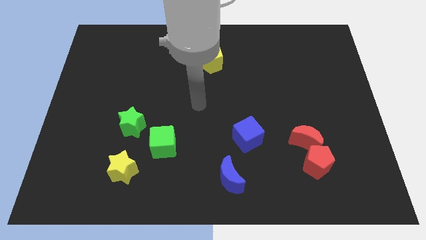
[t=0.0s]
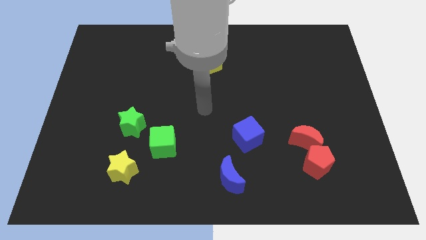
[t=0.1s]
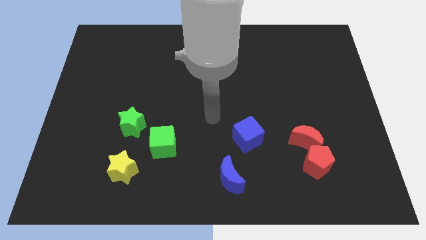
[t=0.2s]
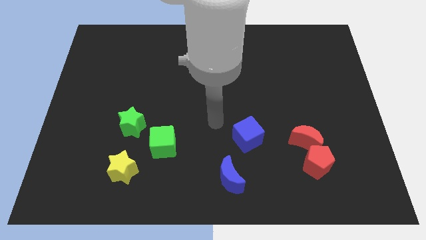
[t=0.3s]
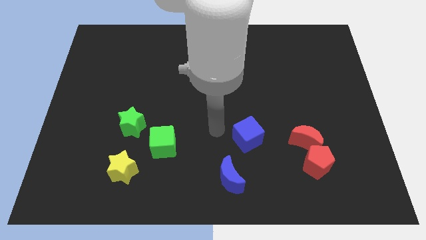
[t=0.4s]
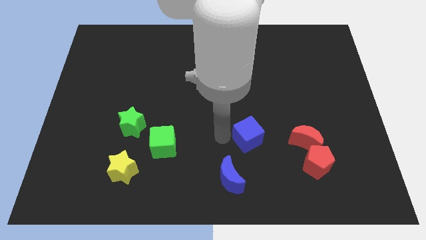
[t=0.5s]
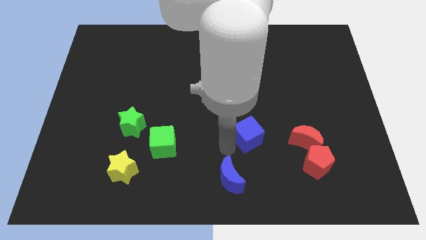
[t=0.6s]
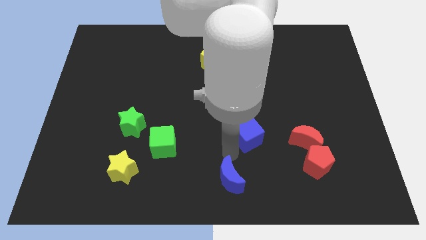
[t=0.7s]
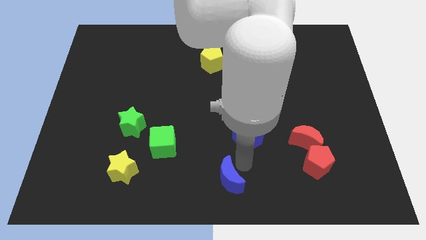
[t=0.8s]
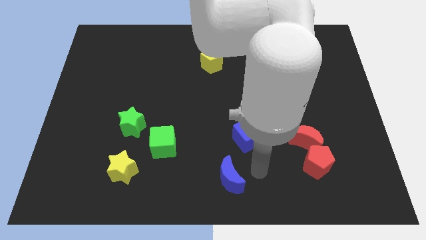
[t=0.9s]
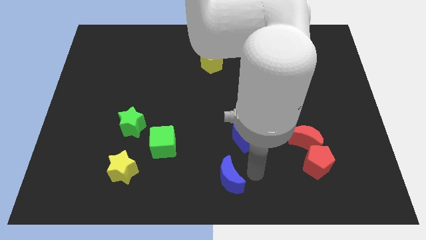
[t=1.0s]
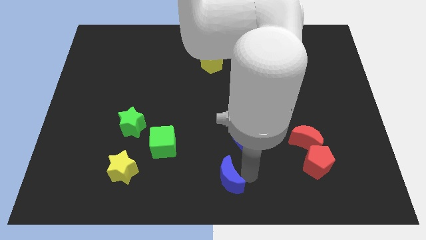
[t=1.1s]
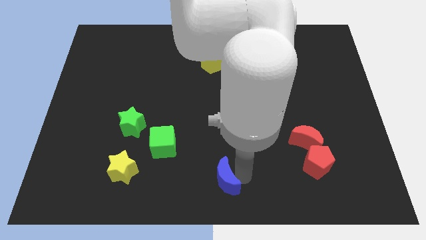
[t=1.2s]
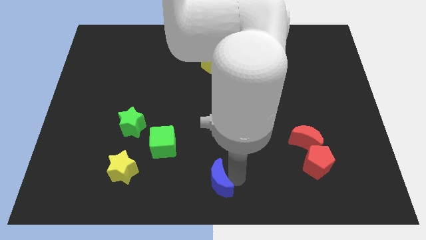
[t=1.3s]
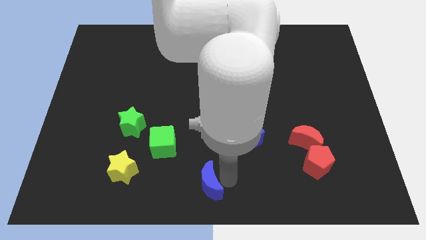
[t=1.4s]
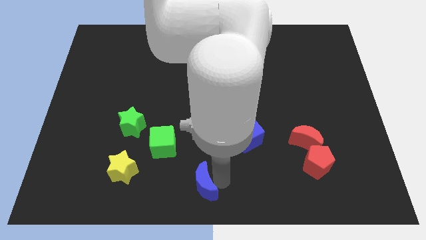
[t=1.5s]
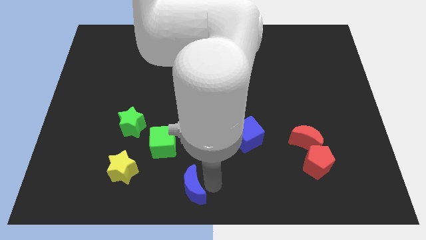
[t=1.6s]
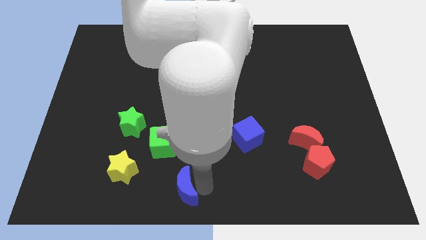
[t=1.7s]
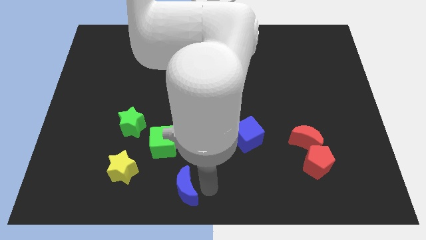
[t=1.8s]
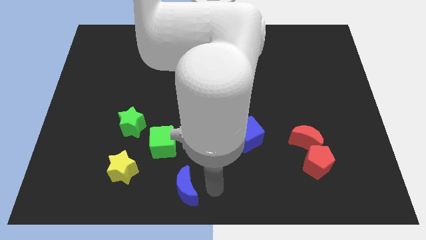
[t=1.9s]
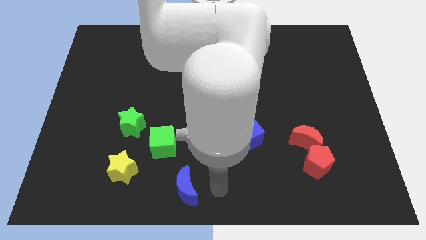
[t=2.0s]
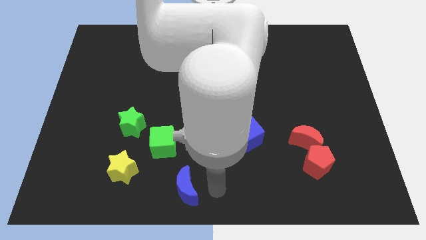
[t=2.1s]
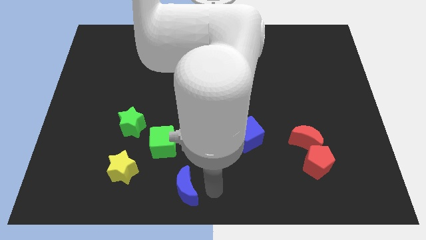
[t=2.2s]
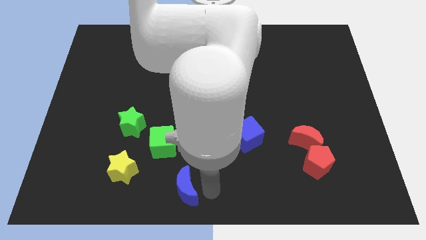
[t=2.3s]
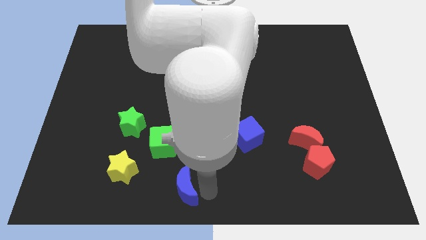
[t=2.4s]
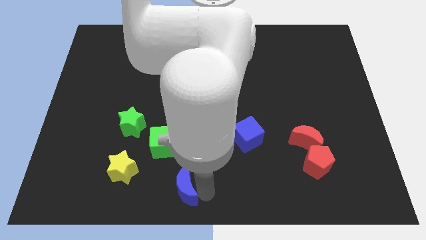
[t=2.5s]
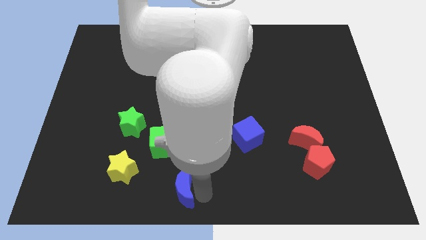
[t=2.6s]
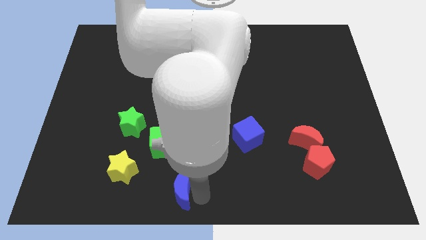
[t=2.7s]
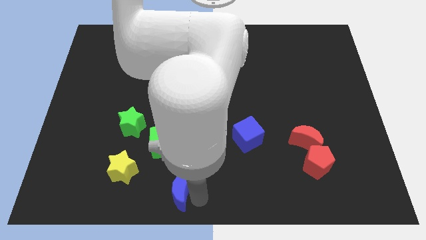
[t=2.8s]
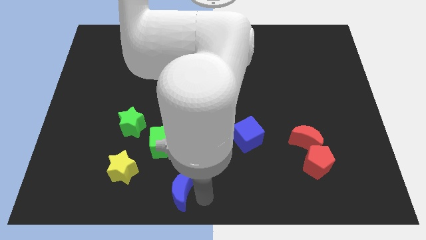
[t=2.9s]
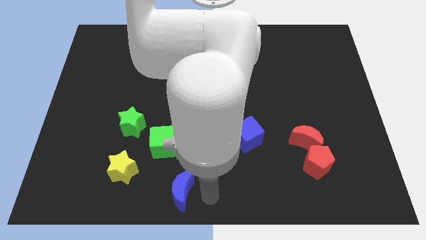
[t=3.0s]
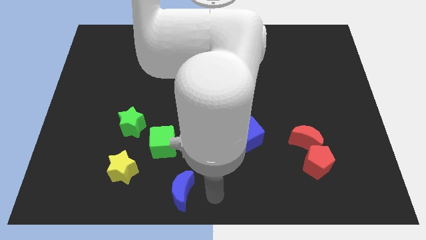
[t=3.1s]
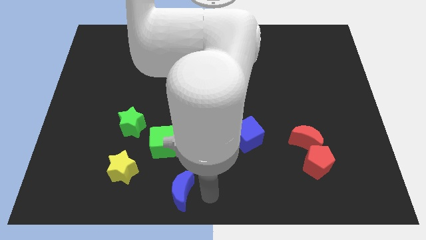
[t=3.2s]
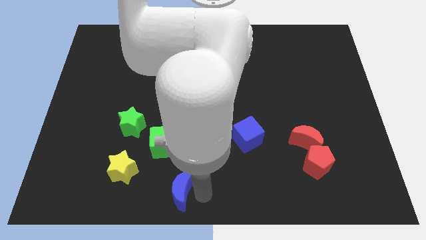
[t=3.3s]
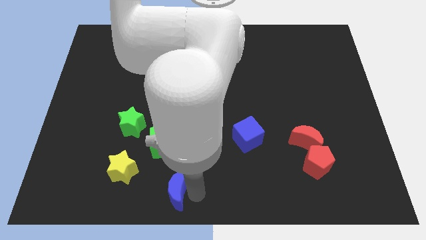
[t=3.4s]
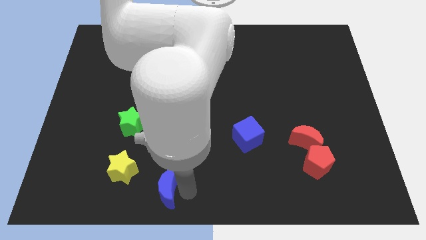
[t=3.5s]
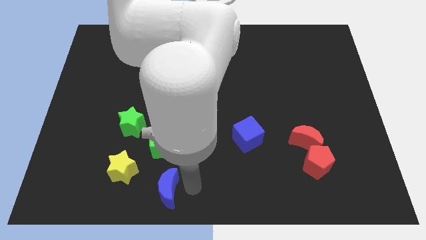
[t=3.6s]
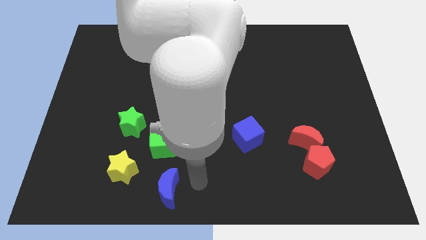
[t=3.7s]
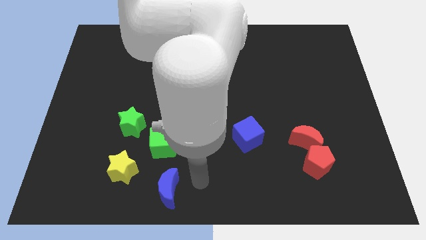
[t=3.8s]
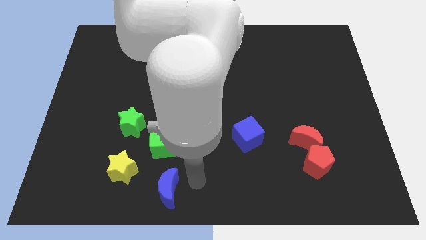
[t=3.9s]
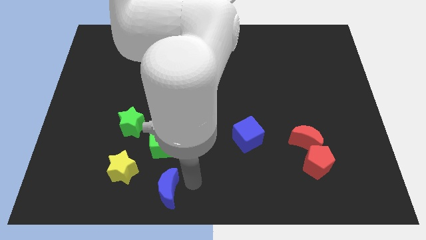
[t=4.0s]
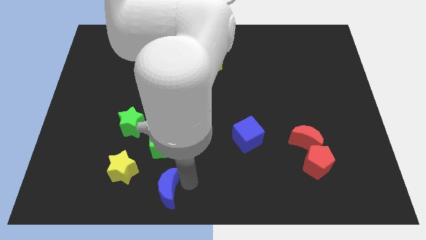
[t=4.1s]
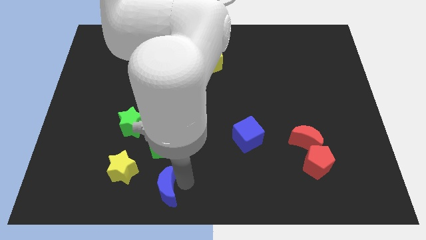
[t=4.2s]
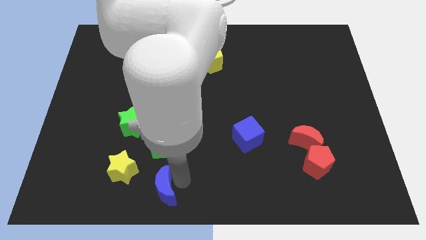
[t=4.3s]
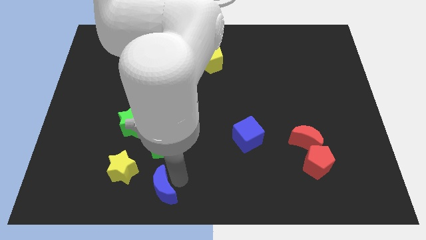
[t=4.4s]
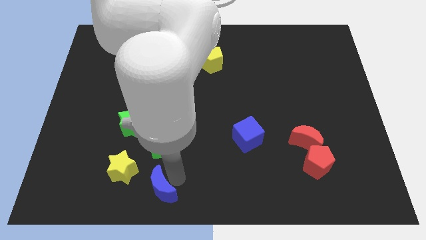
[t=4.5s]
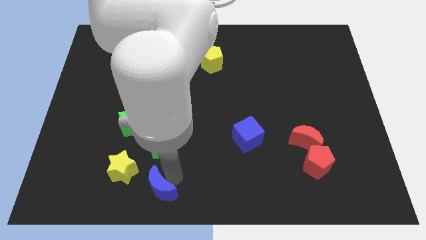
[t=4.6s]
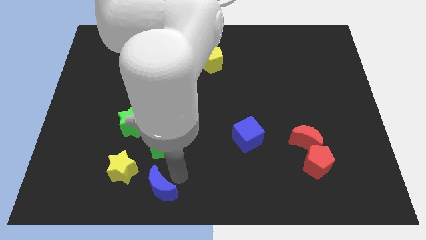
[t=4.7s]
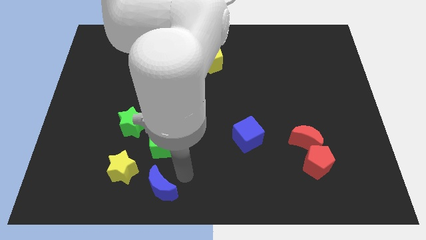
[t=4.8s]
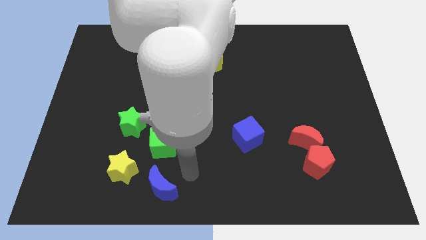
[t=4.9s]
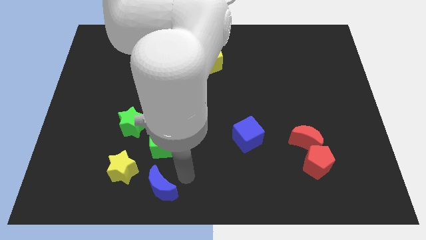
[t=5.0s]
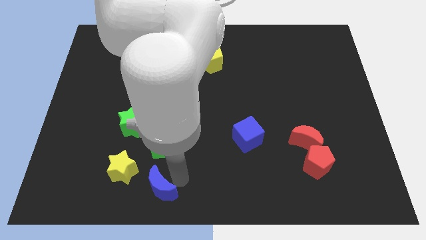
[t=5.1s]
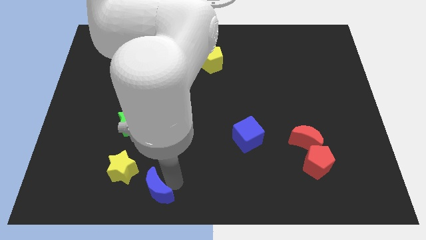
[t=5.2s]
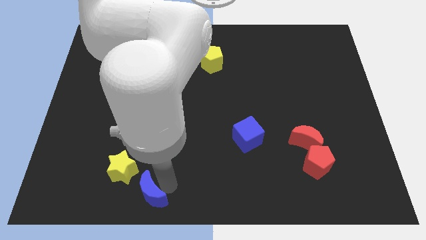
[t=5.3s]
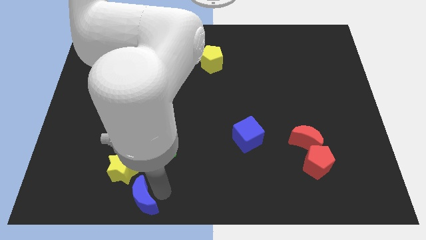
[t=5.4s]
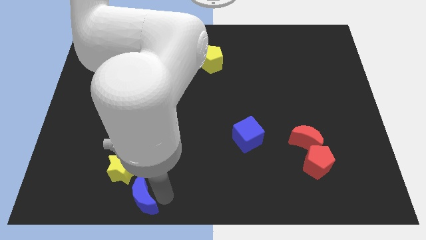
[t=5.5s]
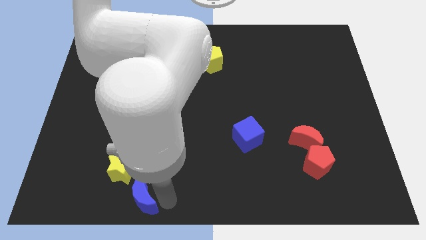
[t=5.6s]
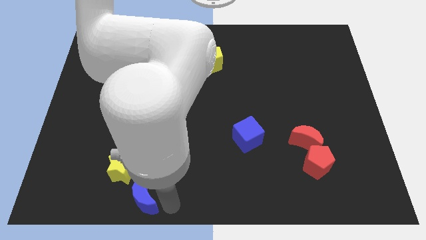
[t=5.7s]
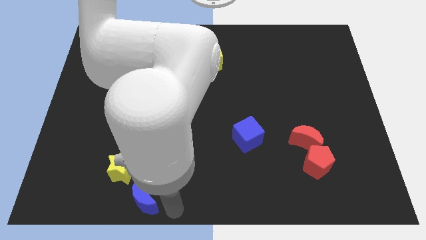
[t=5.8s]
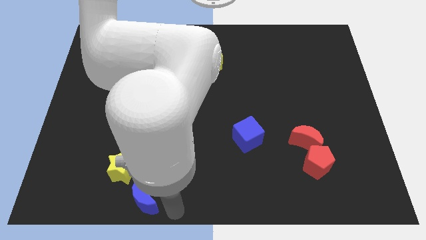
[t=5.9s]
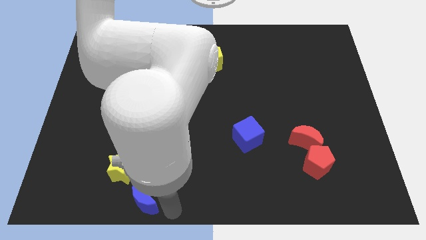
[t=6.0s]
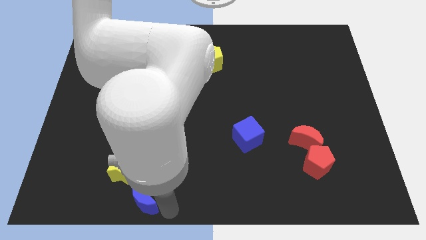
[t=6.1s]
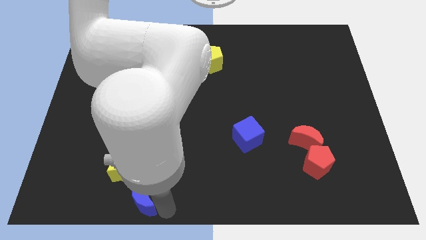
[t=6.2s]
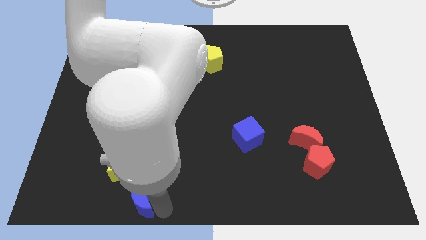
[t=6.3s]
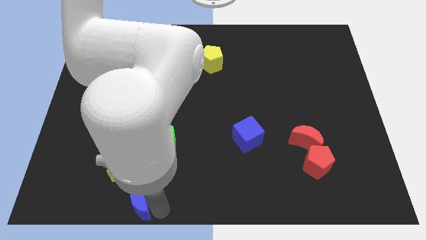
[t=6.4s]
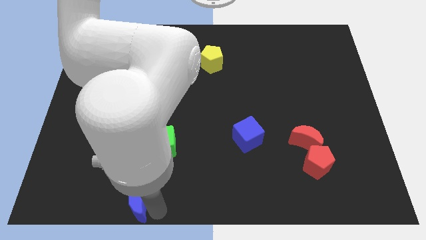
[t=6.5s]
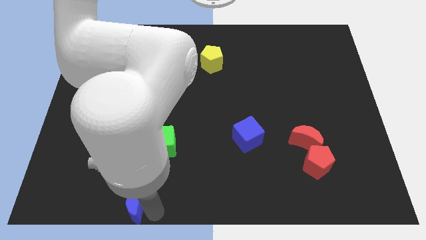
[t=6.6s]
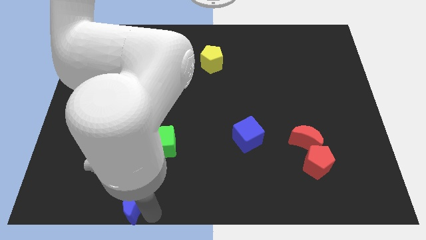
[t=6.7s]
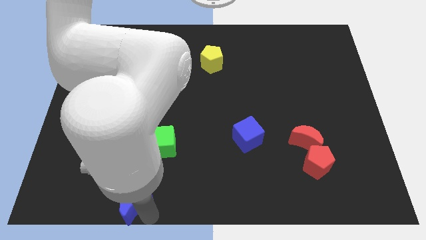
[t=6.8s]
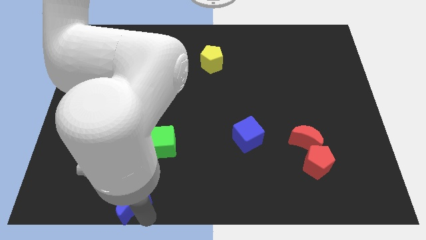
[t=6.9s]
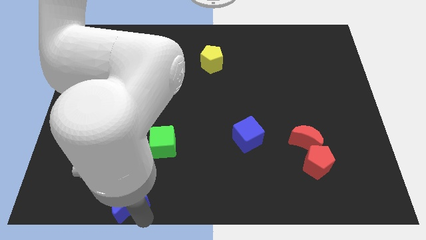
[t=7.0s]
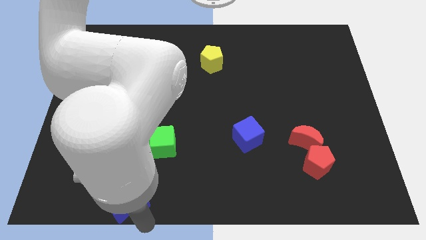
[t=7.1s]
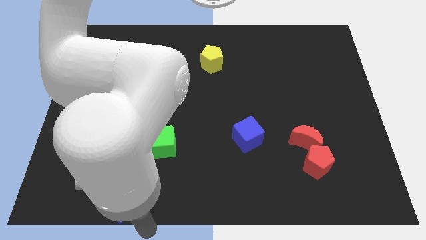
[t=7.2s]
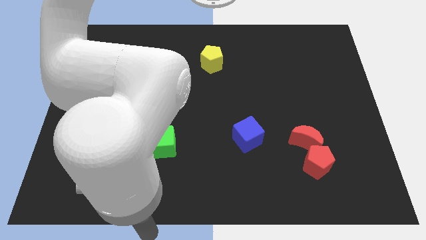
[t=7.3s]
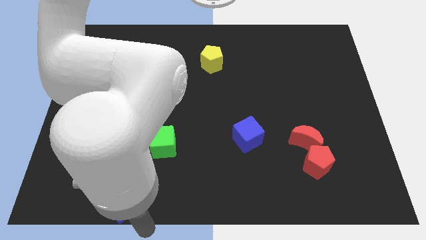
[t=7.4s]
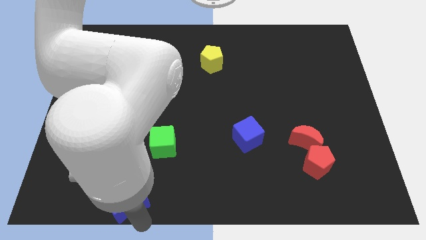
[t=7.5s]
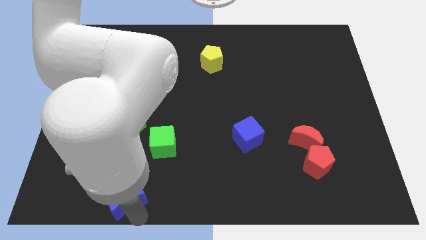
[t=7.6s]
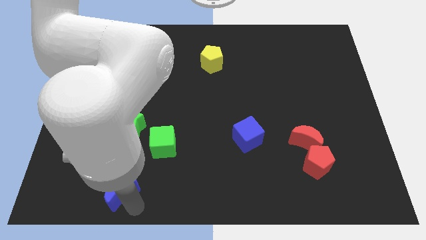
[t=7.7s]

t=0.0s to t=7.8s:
push the blue moon left
